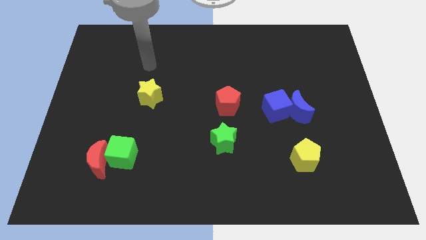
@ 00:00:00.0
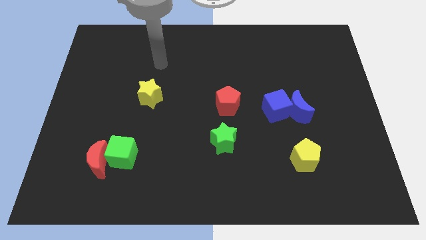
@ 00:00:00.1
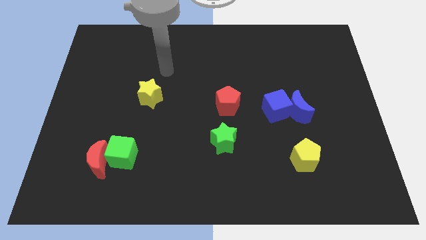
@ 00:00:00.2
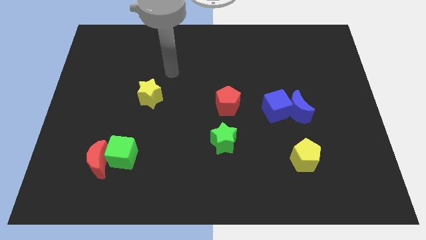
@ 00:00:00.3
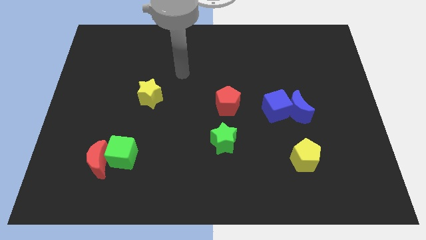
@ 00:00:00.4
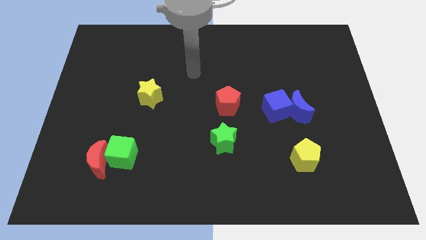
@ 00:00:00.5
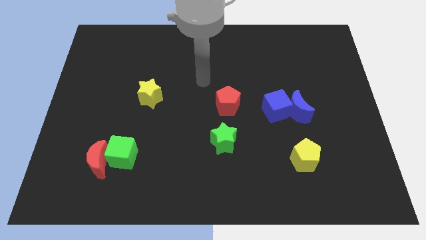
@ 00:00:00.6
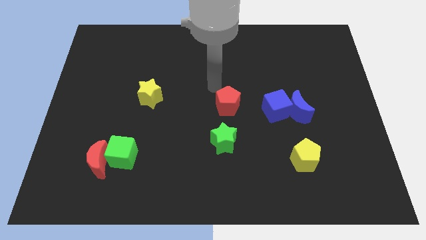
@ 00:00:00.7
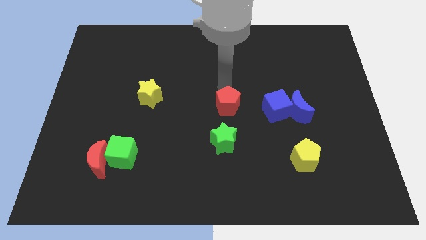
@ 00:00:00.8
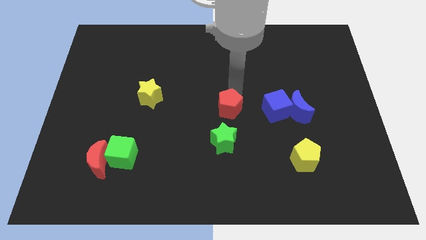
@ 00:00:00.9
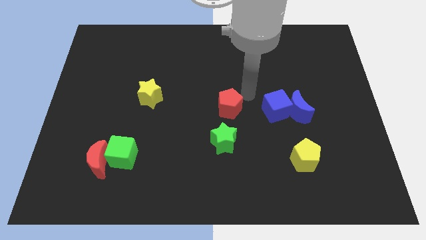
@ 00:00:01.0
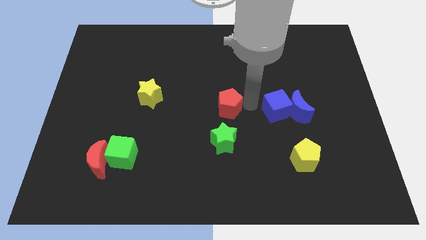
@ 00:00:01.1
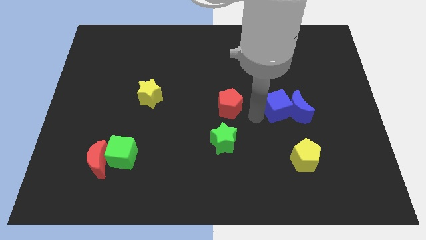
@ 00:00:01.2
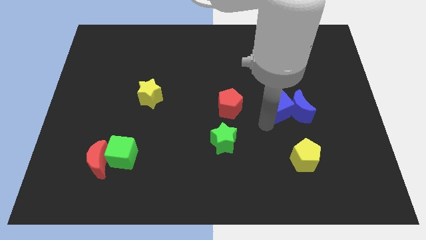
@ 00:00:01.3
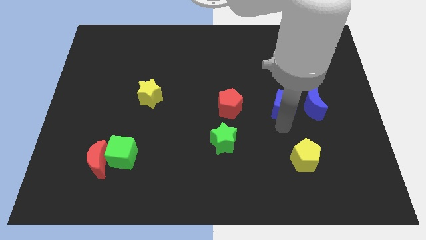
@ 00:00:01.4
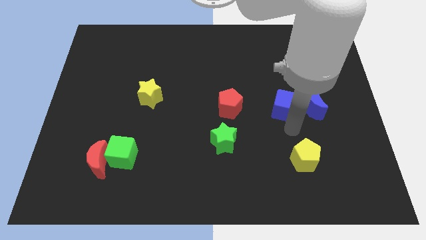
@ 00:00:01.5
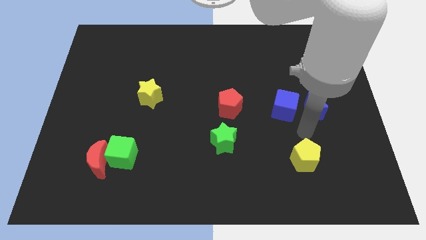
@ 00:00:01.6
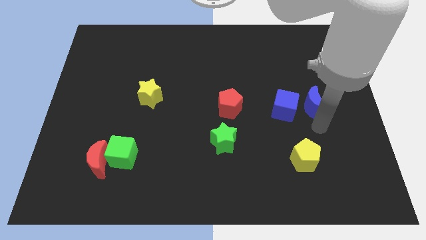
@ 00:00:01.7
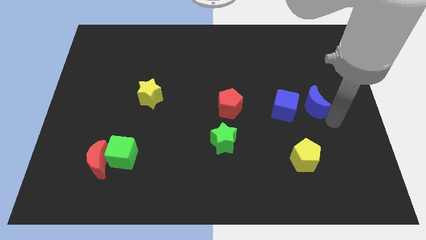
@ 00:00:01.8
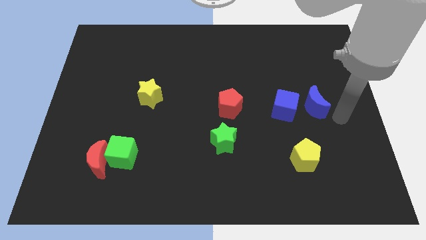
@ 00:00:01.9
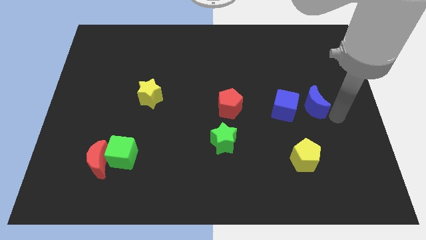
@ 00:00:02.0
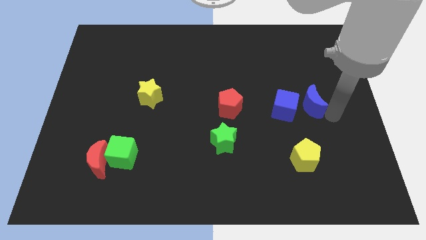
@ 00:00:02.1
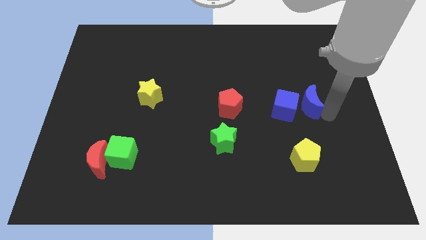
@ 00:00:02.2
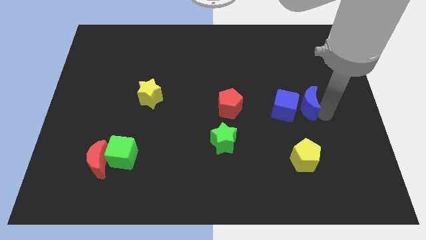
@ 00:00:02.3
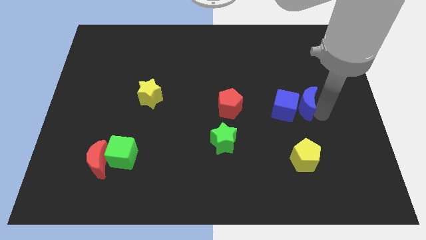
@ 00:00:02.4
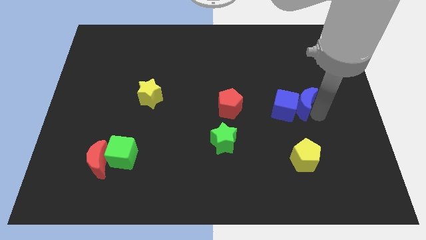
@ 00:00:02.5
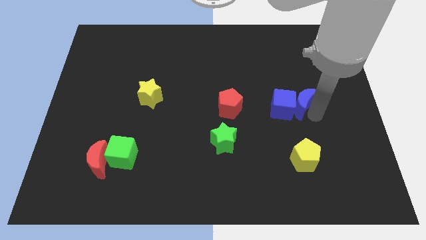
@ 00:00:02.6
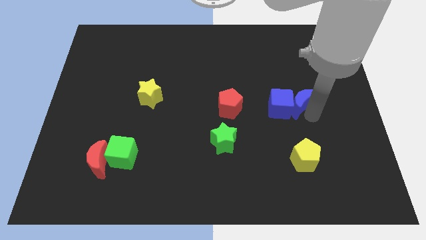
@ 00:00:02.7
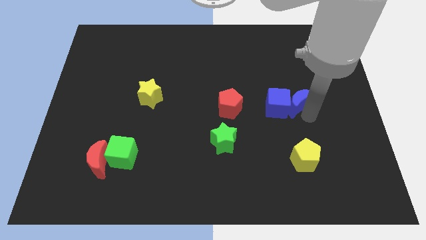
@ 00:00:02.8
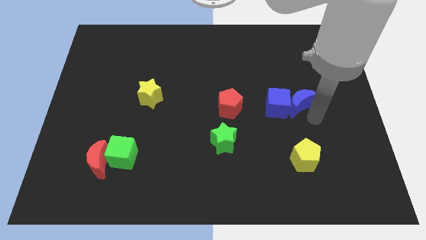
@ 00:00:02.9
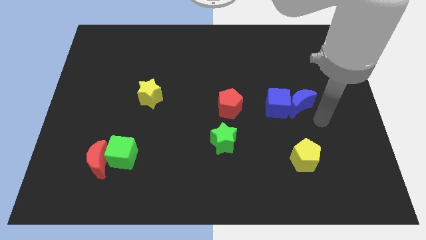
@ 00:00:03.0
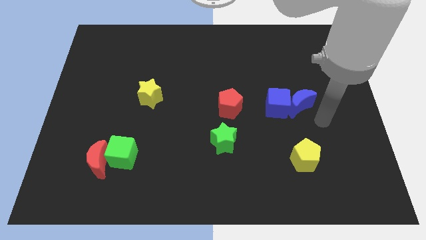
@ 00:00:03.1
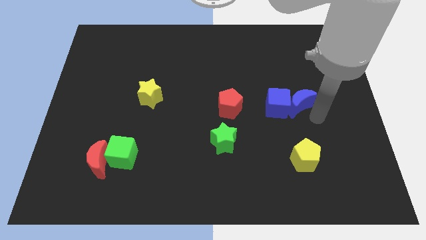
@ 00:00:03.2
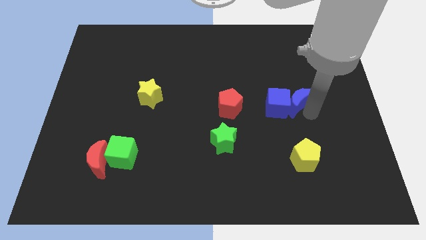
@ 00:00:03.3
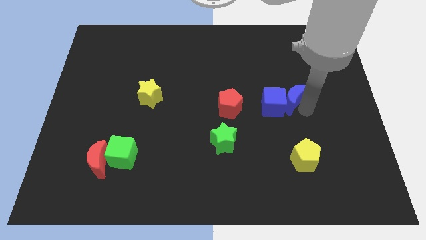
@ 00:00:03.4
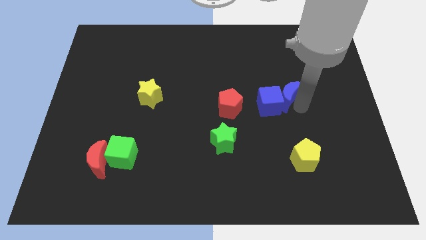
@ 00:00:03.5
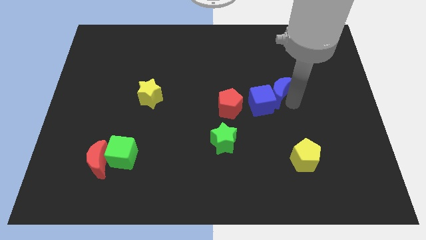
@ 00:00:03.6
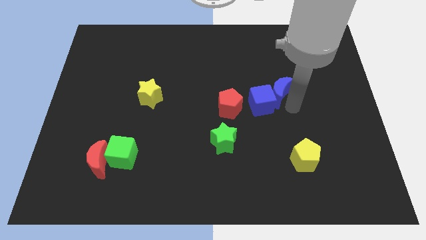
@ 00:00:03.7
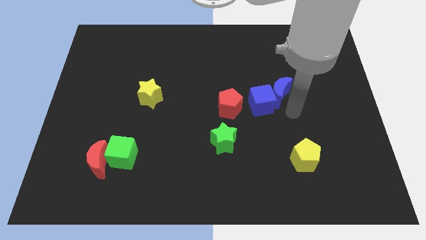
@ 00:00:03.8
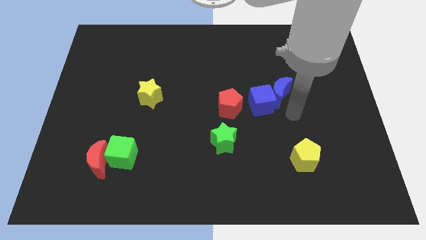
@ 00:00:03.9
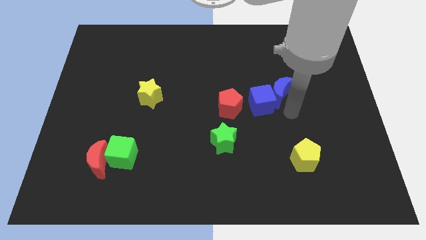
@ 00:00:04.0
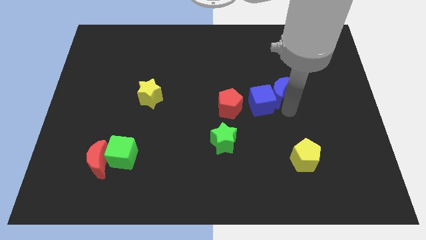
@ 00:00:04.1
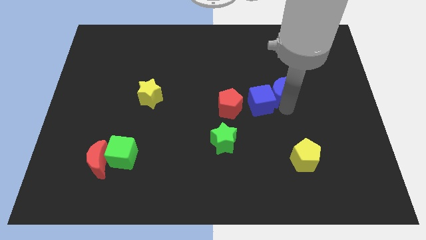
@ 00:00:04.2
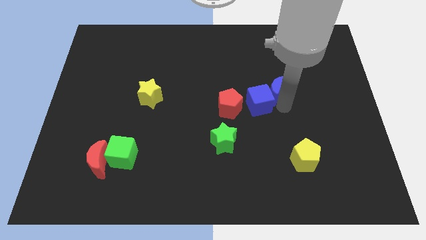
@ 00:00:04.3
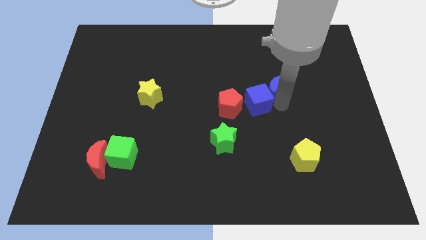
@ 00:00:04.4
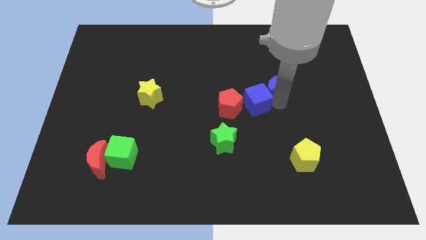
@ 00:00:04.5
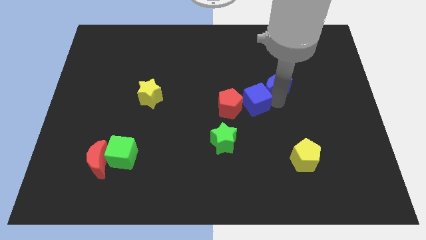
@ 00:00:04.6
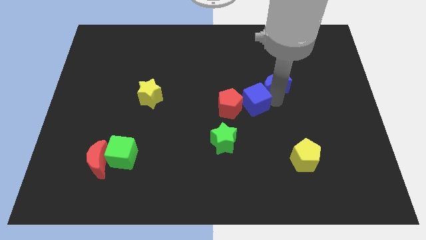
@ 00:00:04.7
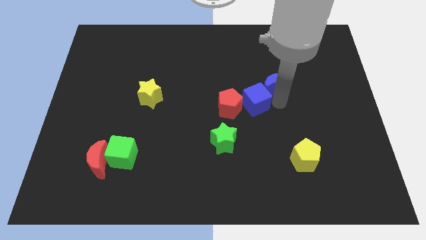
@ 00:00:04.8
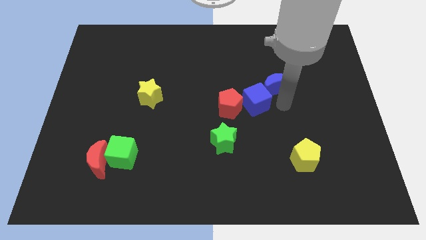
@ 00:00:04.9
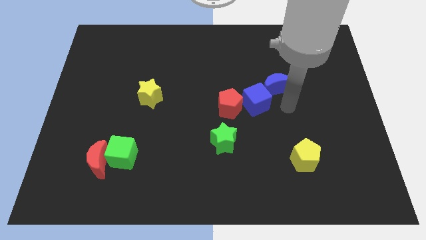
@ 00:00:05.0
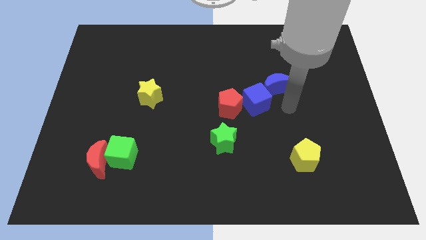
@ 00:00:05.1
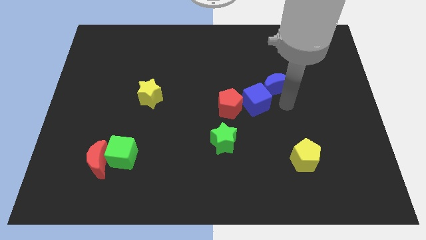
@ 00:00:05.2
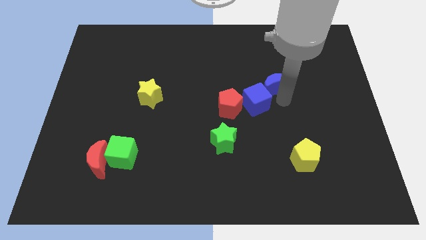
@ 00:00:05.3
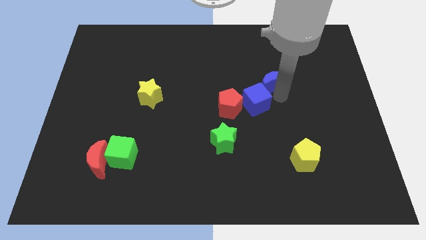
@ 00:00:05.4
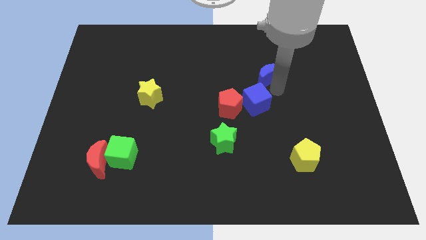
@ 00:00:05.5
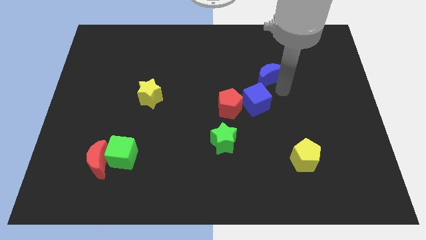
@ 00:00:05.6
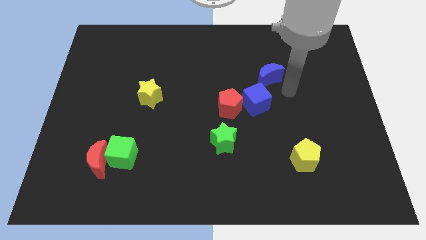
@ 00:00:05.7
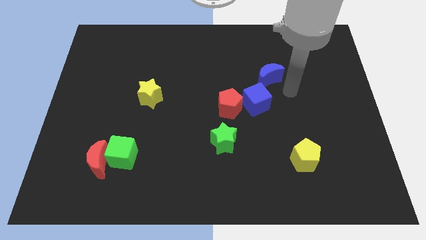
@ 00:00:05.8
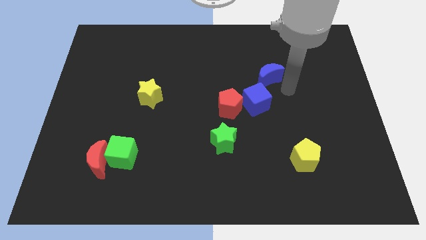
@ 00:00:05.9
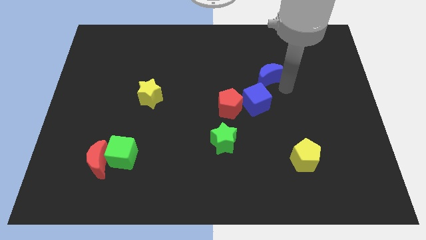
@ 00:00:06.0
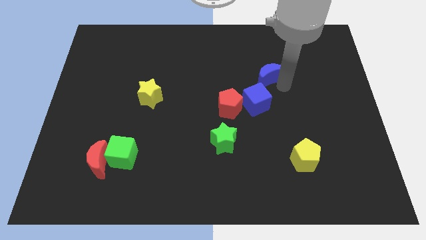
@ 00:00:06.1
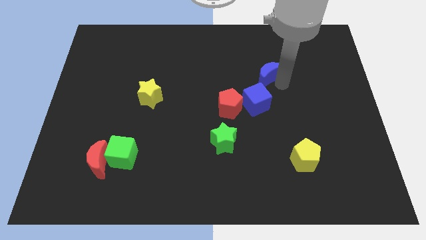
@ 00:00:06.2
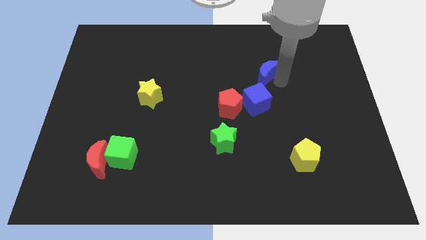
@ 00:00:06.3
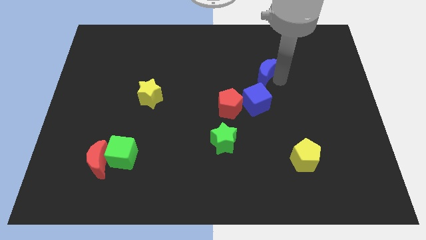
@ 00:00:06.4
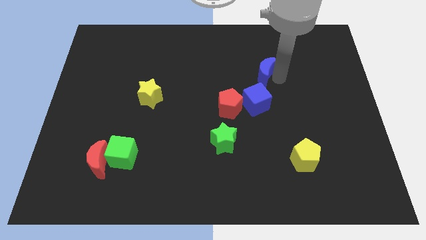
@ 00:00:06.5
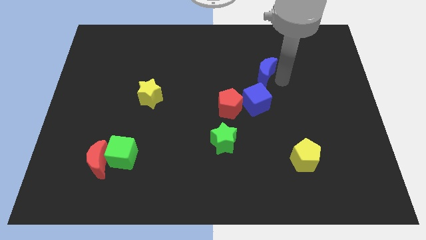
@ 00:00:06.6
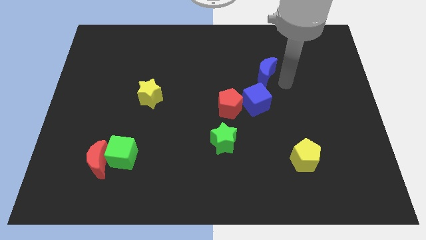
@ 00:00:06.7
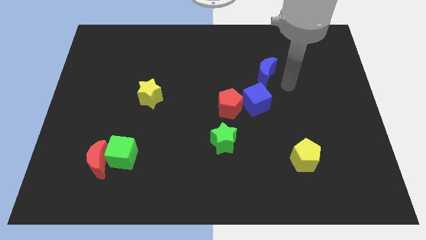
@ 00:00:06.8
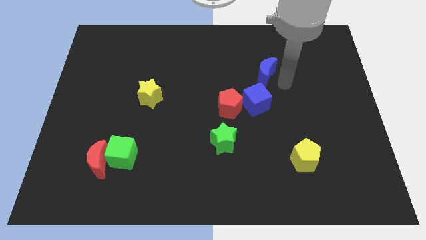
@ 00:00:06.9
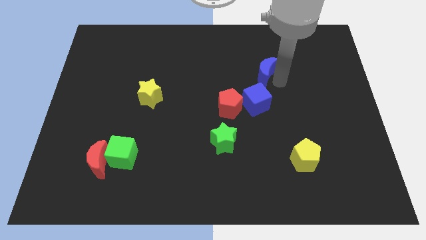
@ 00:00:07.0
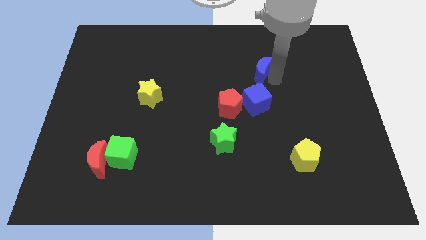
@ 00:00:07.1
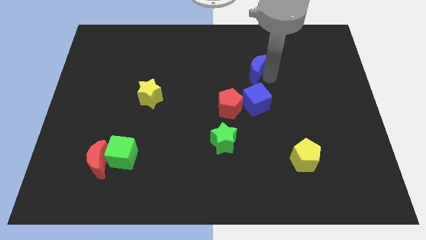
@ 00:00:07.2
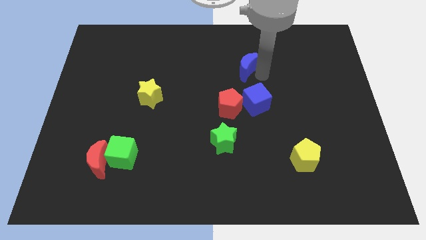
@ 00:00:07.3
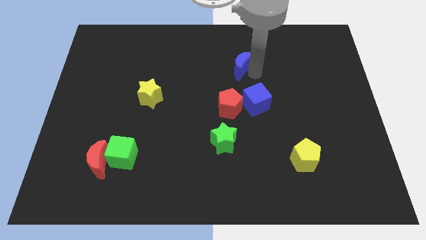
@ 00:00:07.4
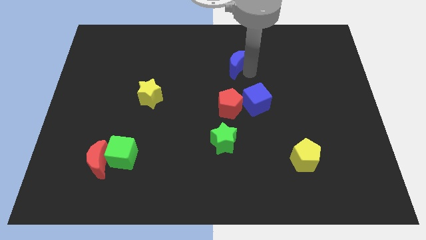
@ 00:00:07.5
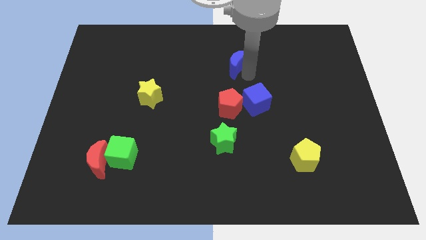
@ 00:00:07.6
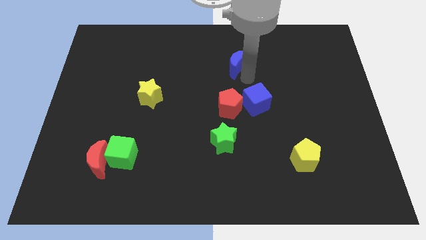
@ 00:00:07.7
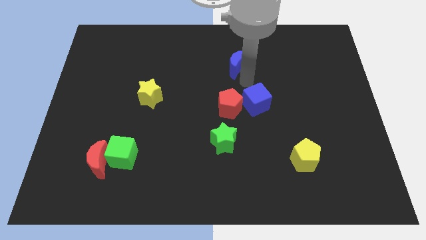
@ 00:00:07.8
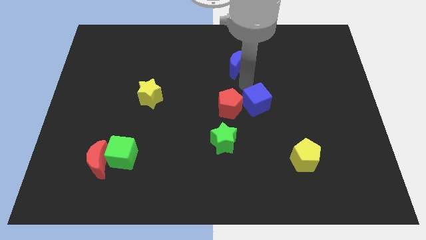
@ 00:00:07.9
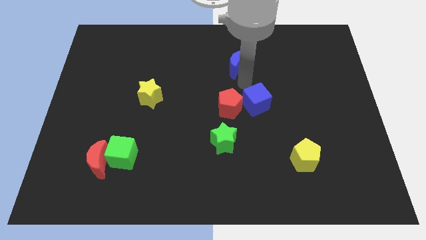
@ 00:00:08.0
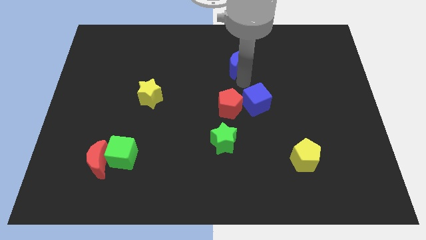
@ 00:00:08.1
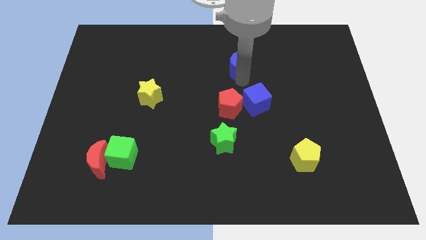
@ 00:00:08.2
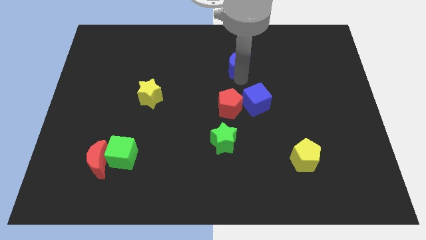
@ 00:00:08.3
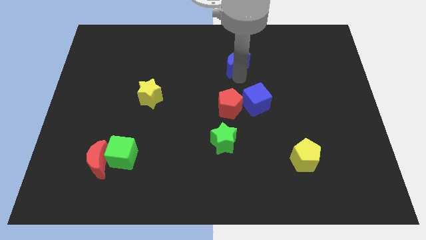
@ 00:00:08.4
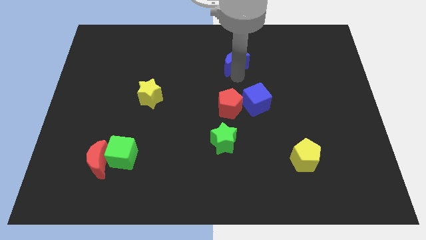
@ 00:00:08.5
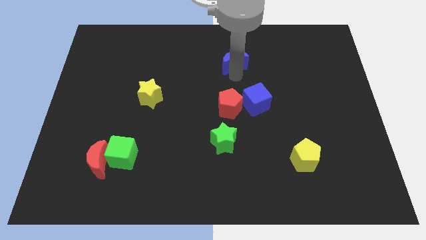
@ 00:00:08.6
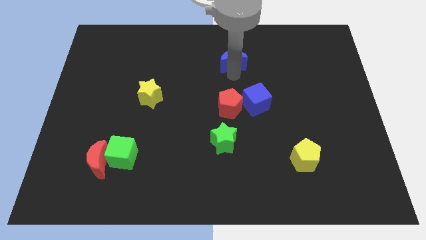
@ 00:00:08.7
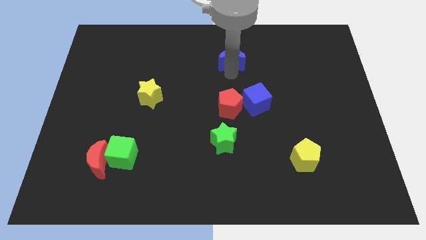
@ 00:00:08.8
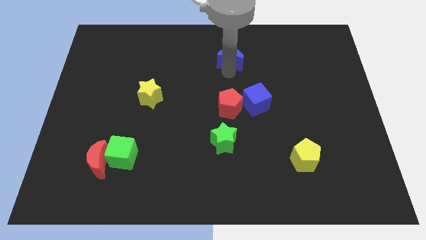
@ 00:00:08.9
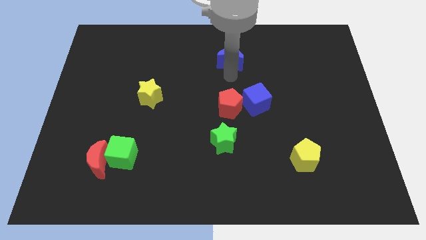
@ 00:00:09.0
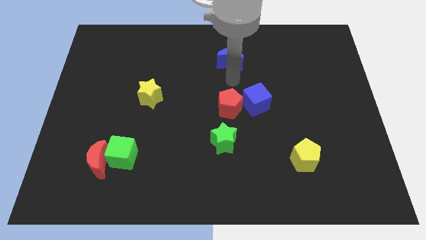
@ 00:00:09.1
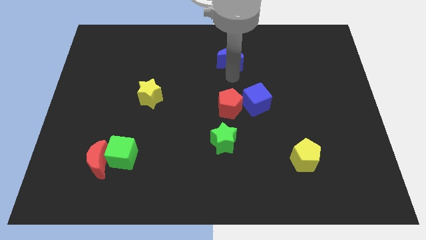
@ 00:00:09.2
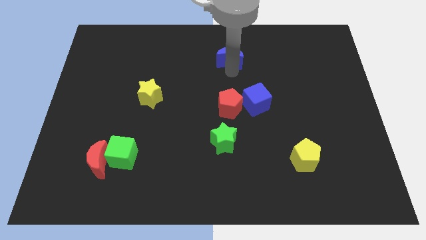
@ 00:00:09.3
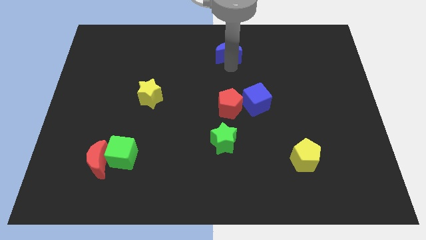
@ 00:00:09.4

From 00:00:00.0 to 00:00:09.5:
move the blue moon to the top
